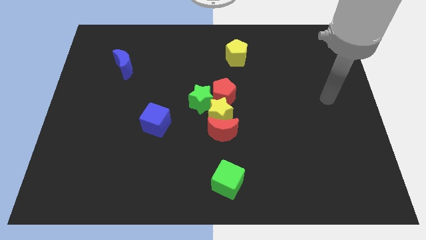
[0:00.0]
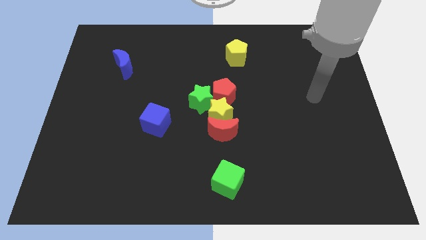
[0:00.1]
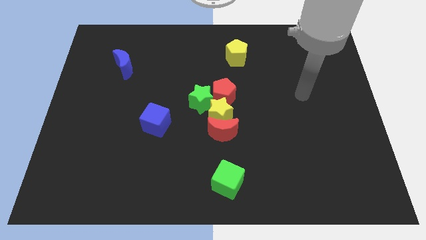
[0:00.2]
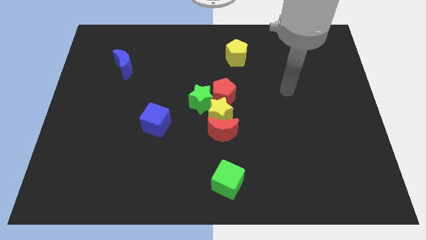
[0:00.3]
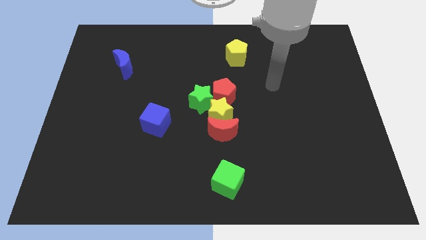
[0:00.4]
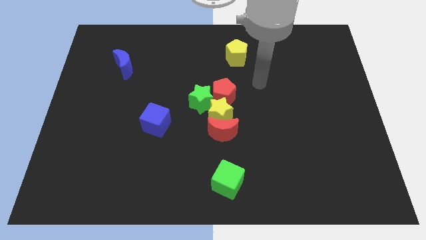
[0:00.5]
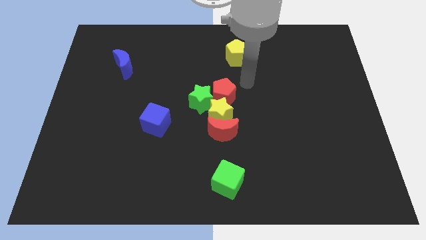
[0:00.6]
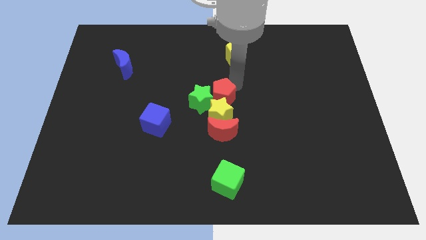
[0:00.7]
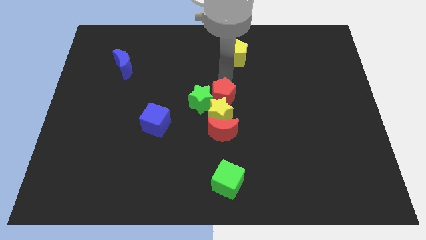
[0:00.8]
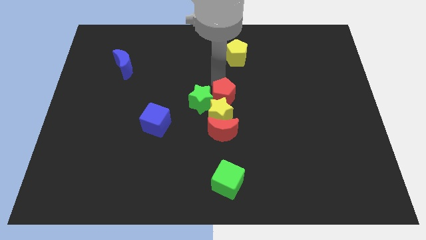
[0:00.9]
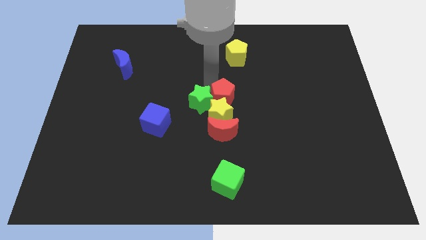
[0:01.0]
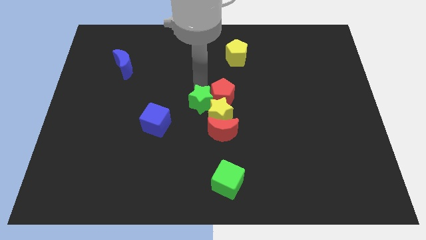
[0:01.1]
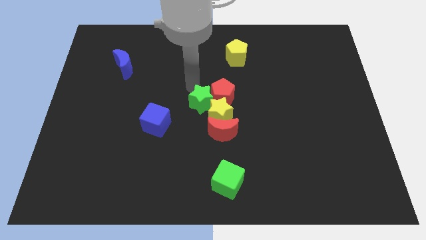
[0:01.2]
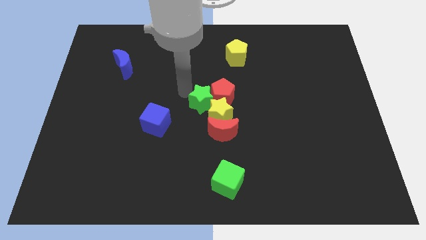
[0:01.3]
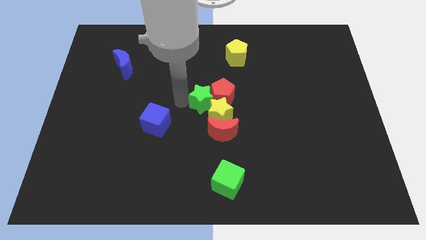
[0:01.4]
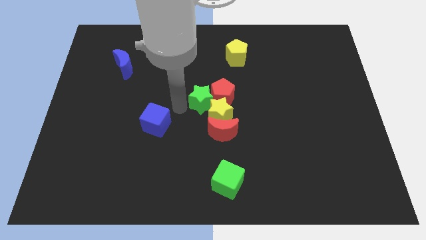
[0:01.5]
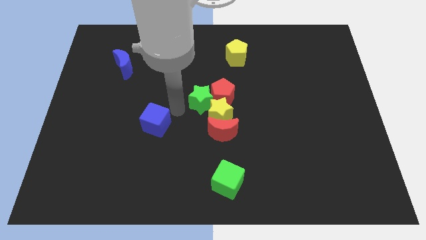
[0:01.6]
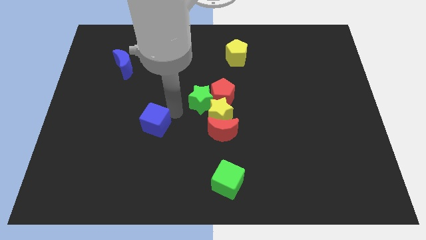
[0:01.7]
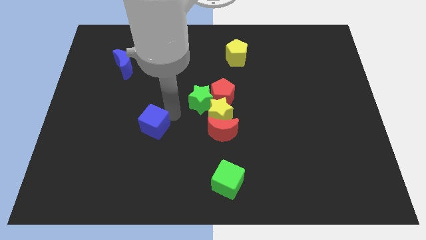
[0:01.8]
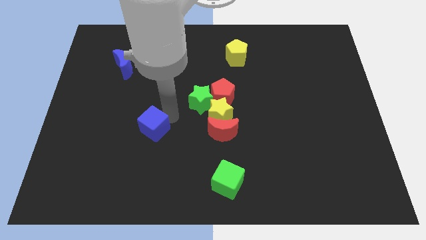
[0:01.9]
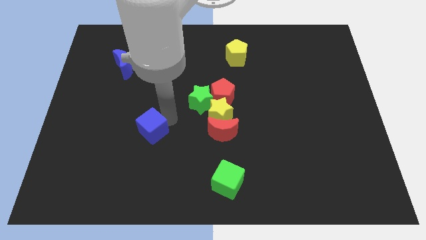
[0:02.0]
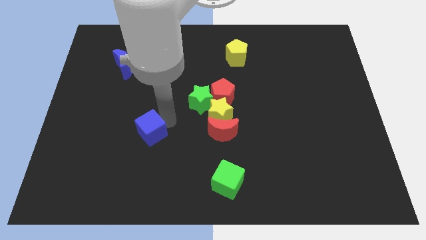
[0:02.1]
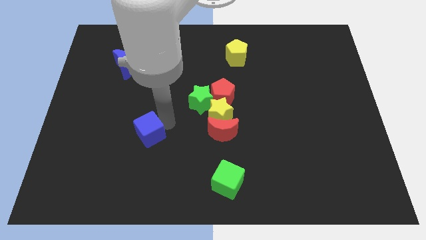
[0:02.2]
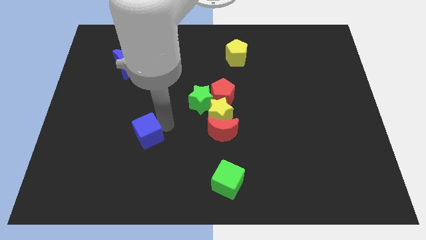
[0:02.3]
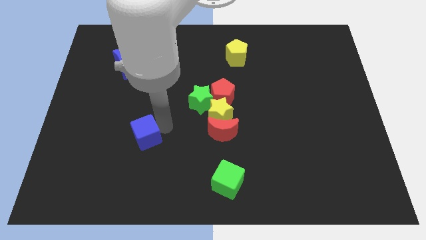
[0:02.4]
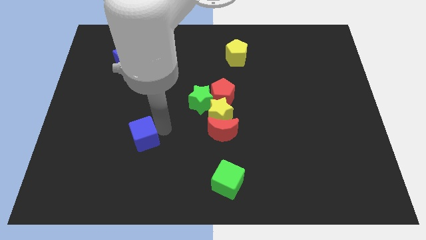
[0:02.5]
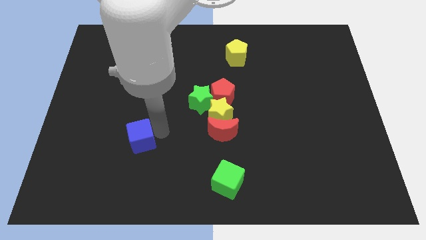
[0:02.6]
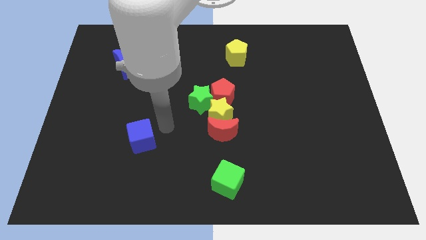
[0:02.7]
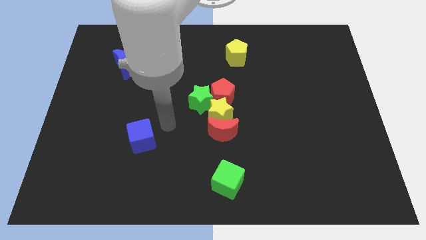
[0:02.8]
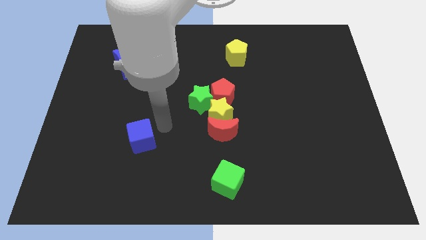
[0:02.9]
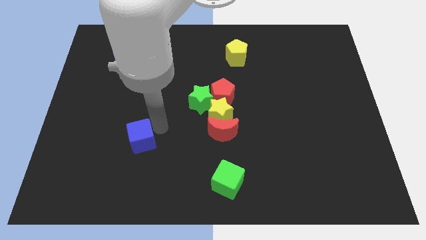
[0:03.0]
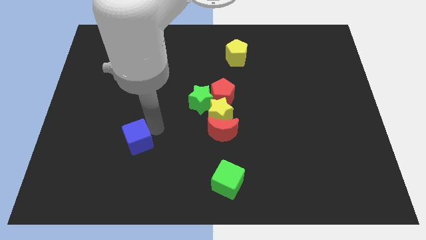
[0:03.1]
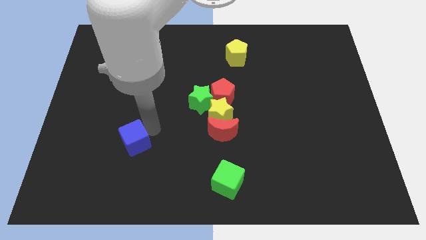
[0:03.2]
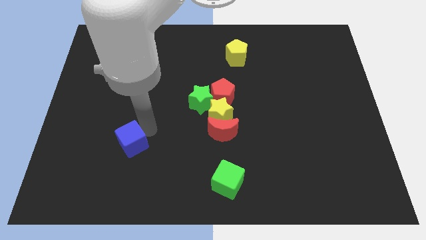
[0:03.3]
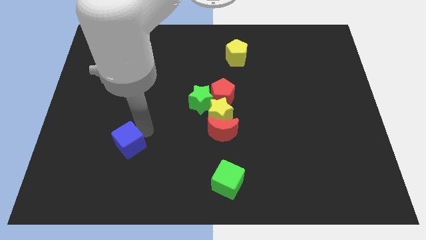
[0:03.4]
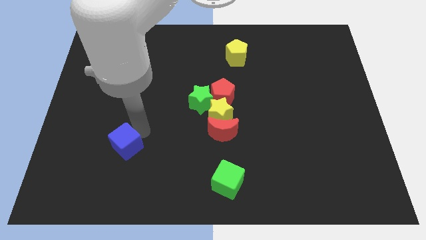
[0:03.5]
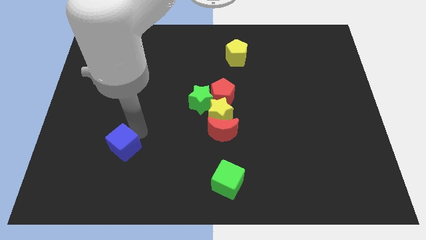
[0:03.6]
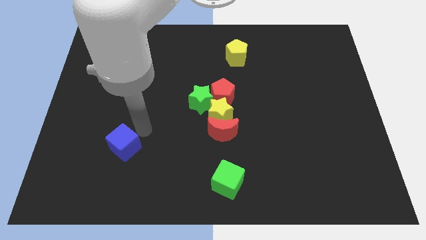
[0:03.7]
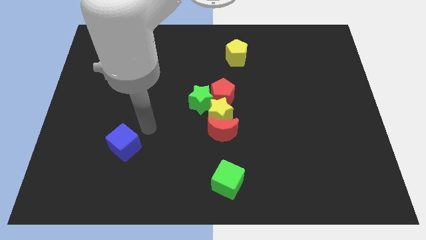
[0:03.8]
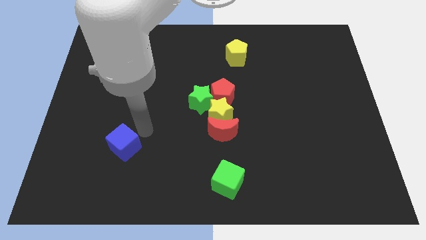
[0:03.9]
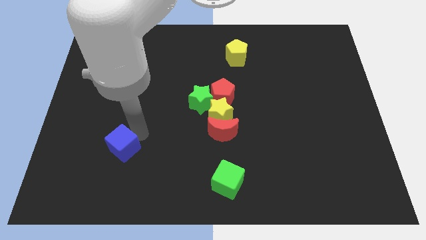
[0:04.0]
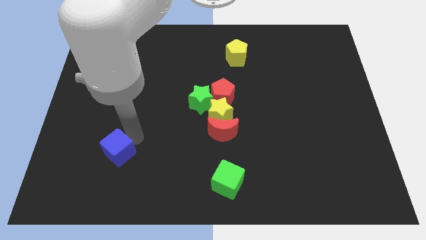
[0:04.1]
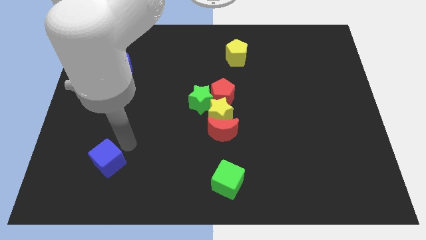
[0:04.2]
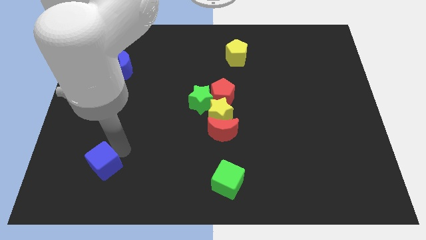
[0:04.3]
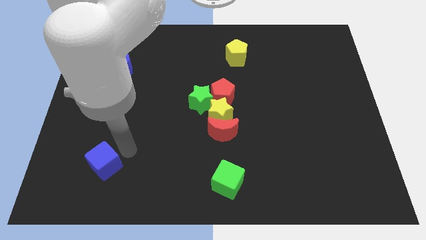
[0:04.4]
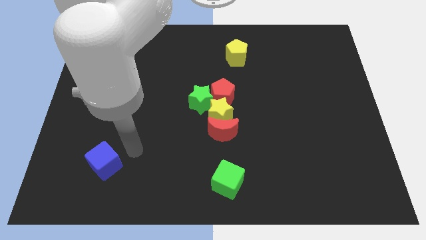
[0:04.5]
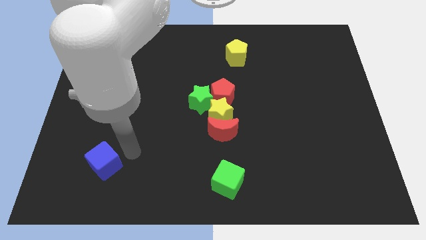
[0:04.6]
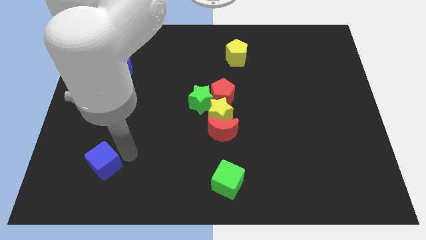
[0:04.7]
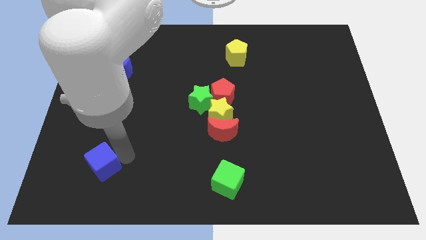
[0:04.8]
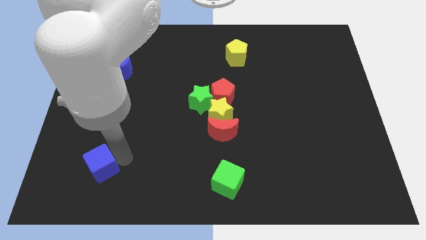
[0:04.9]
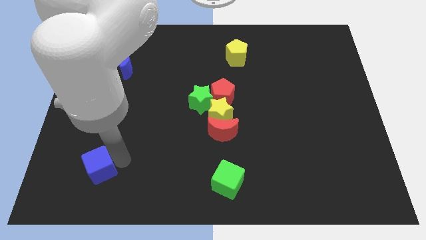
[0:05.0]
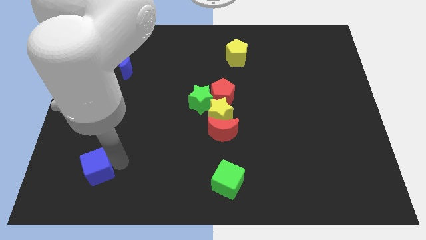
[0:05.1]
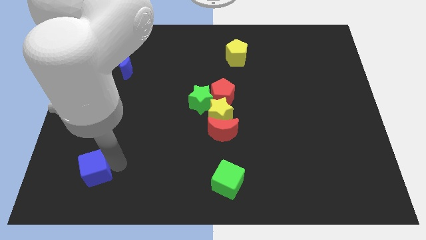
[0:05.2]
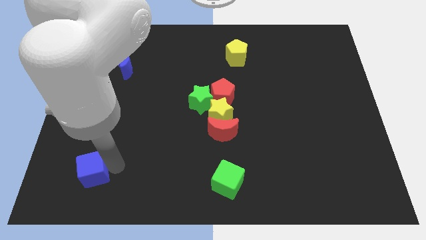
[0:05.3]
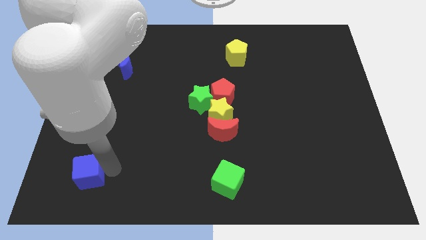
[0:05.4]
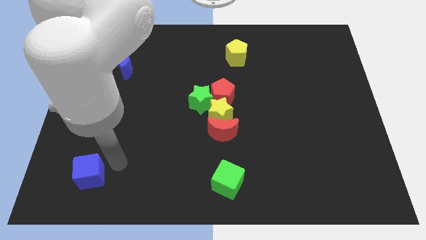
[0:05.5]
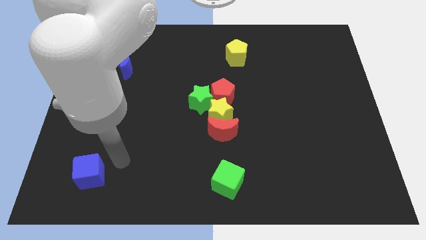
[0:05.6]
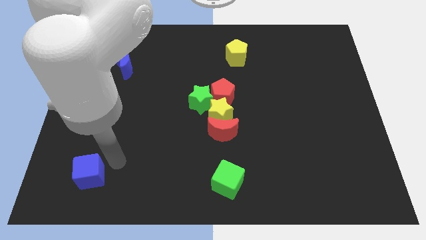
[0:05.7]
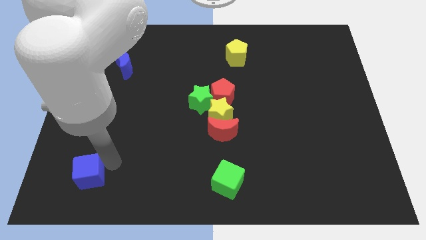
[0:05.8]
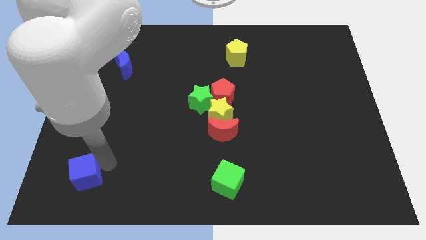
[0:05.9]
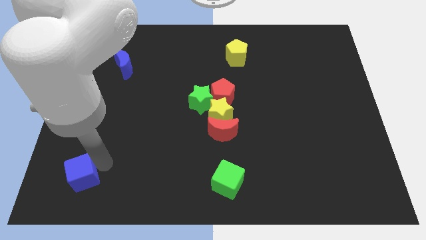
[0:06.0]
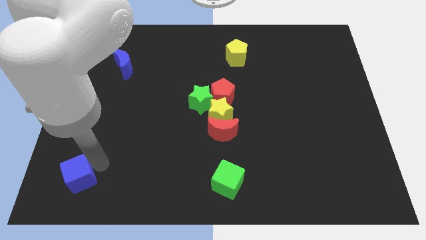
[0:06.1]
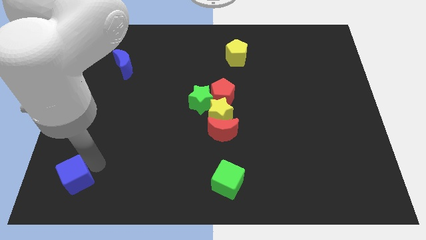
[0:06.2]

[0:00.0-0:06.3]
push the blue cube to the bottom left corner

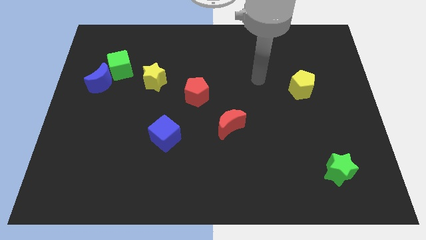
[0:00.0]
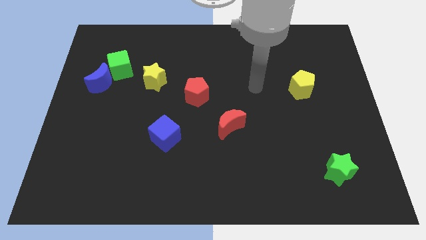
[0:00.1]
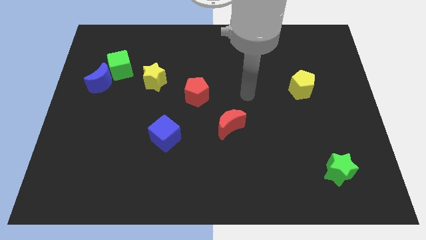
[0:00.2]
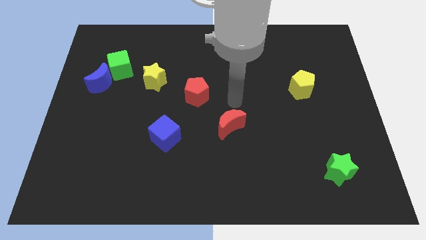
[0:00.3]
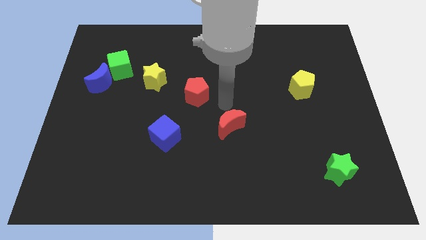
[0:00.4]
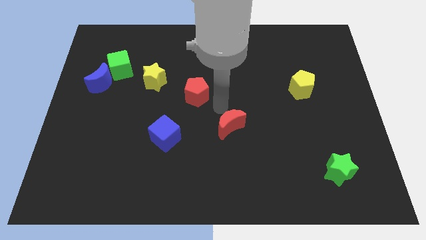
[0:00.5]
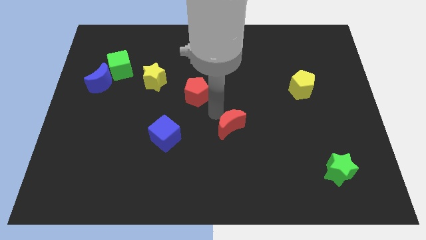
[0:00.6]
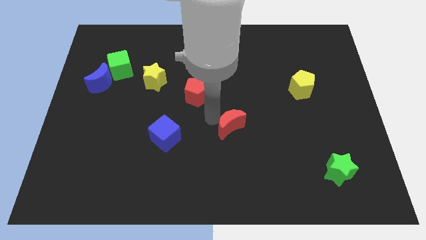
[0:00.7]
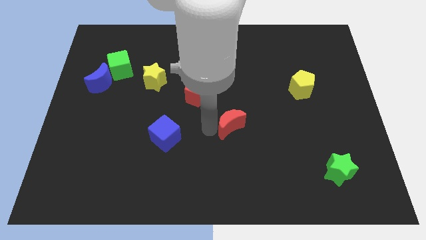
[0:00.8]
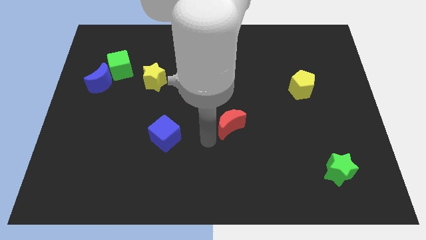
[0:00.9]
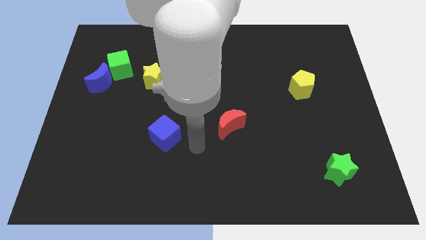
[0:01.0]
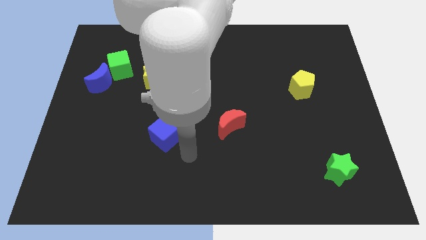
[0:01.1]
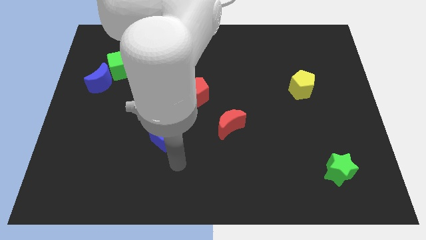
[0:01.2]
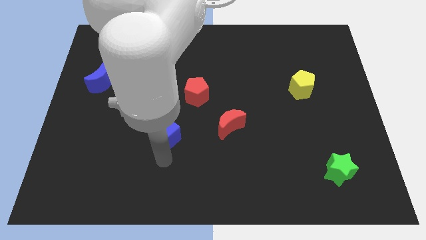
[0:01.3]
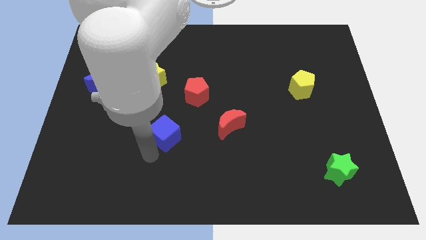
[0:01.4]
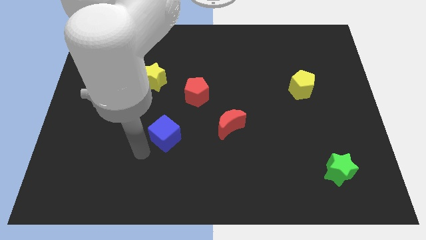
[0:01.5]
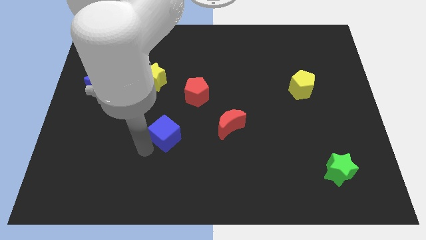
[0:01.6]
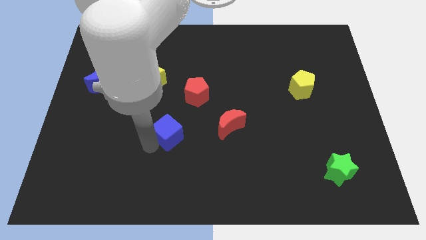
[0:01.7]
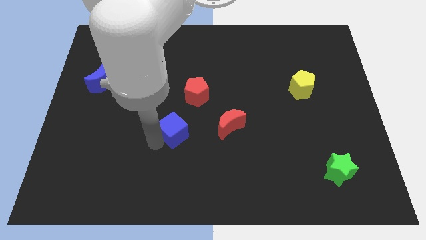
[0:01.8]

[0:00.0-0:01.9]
push the blue cube to the middle of the board
